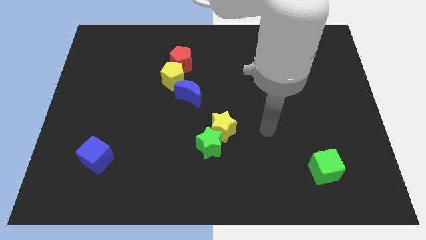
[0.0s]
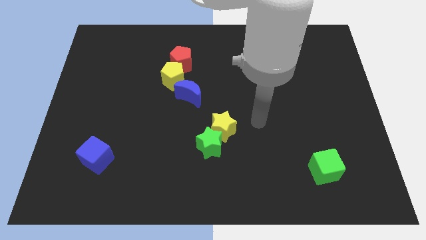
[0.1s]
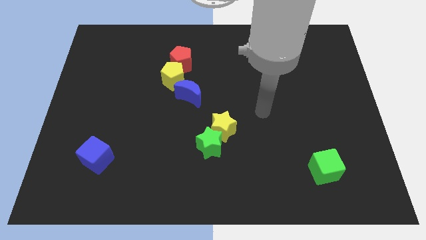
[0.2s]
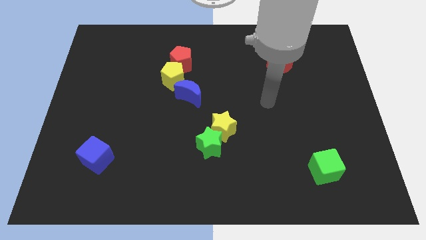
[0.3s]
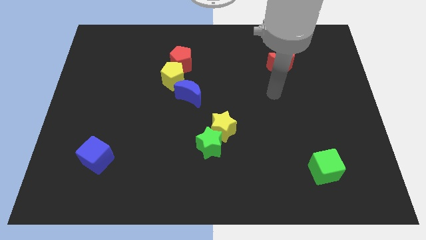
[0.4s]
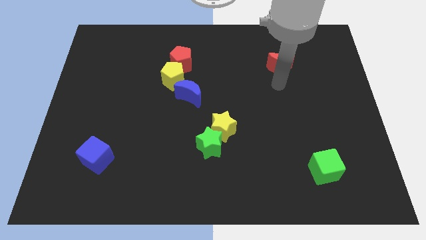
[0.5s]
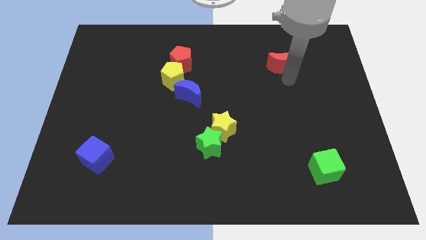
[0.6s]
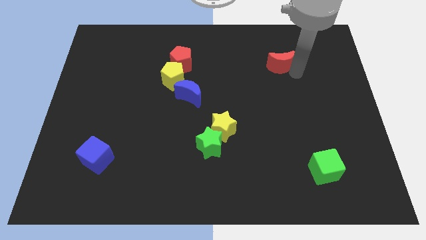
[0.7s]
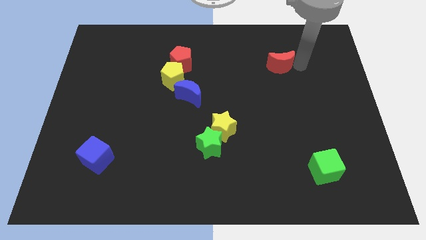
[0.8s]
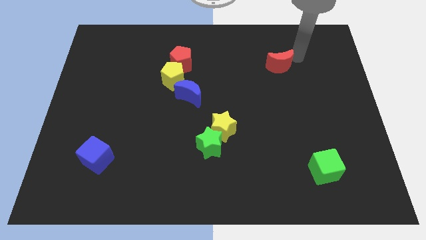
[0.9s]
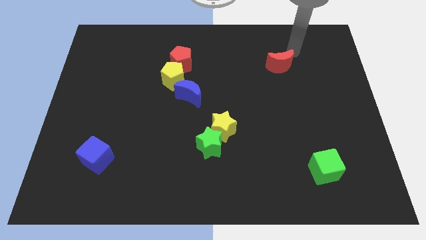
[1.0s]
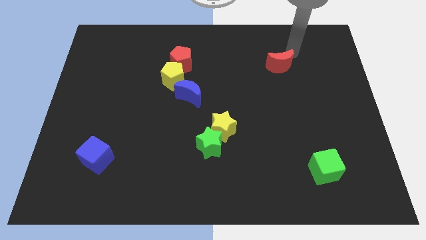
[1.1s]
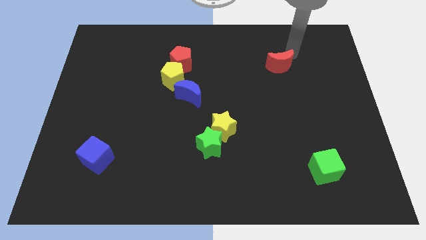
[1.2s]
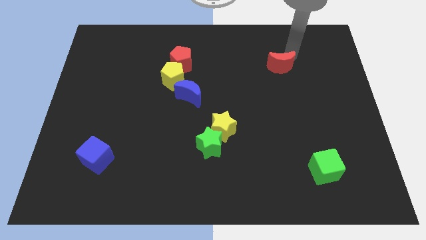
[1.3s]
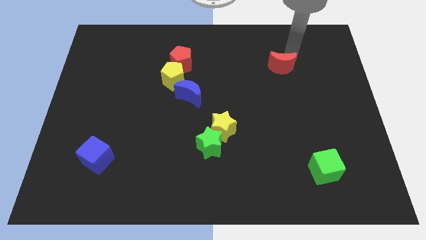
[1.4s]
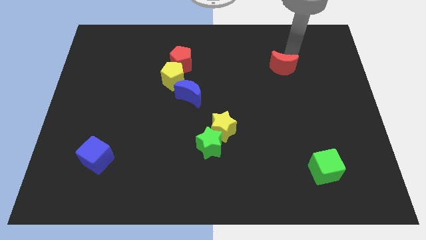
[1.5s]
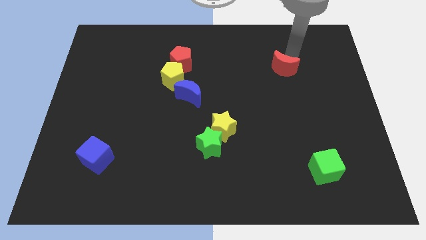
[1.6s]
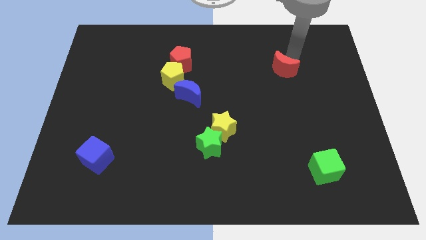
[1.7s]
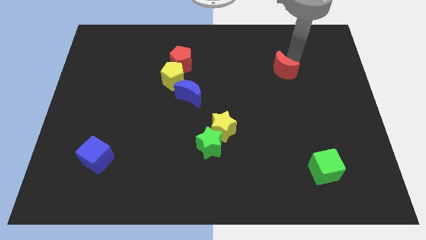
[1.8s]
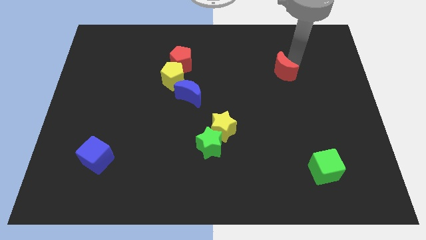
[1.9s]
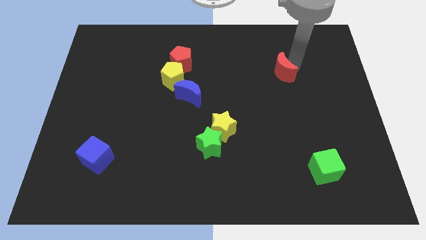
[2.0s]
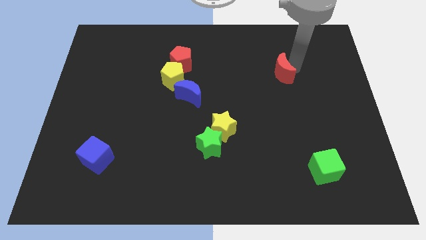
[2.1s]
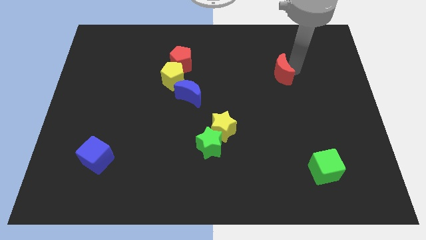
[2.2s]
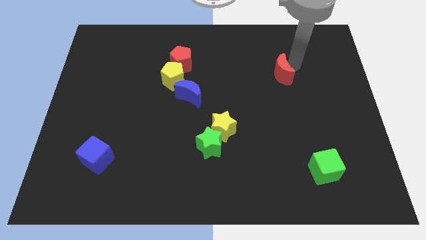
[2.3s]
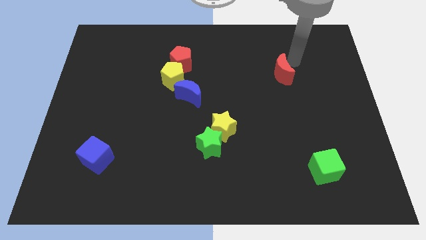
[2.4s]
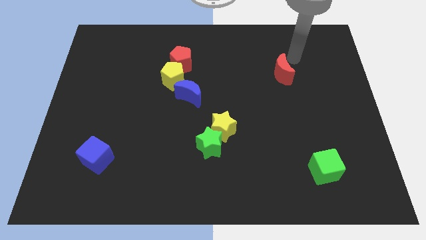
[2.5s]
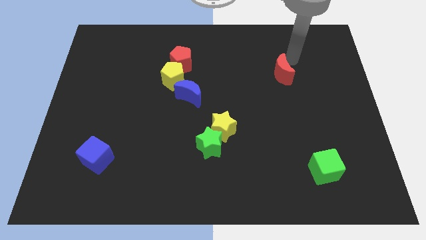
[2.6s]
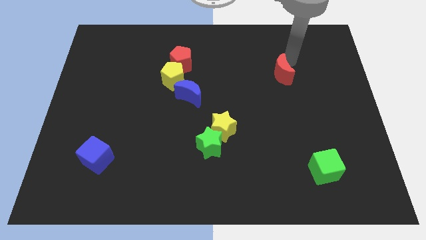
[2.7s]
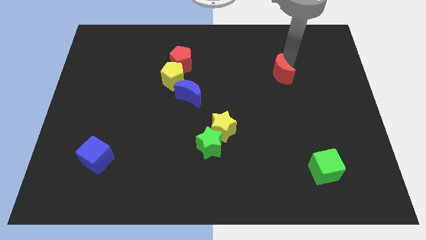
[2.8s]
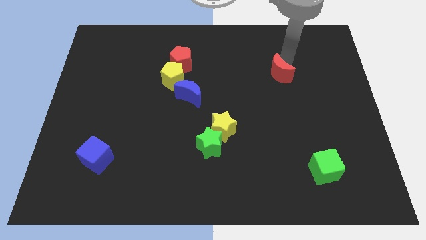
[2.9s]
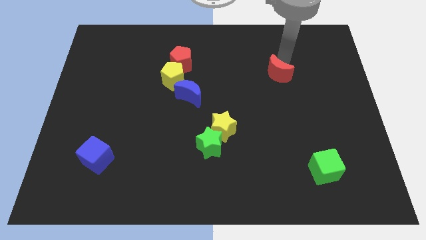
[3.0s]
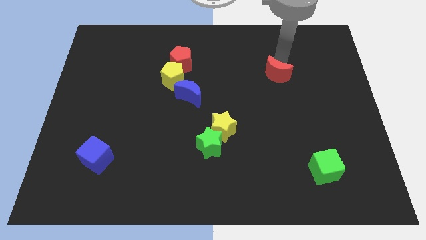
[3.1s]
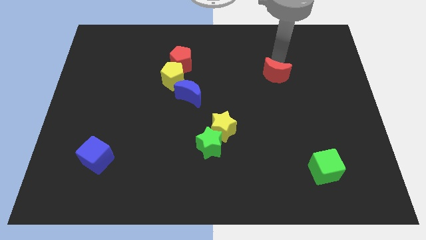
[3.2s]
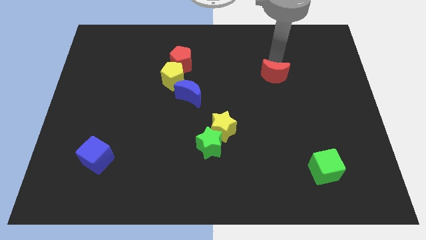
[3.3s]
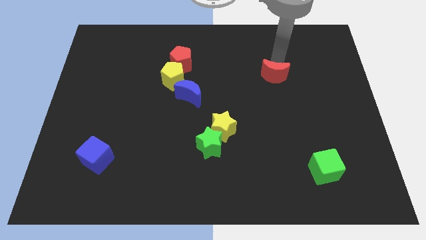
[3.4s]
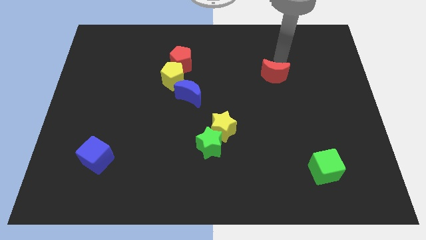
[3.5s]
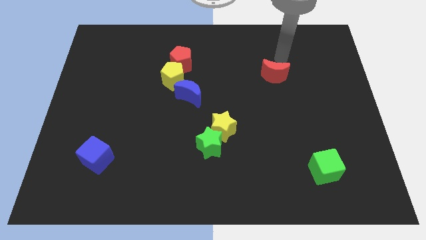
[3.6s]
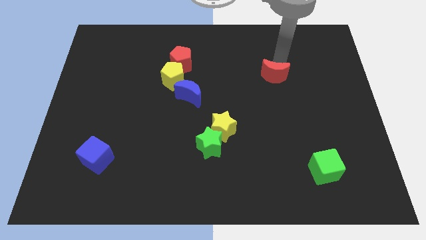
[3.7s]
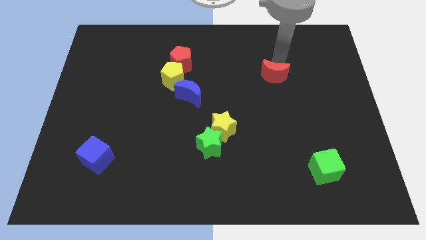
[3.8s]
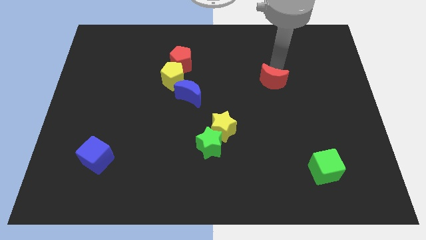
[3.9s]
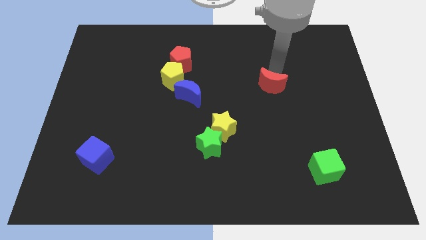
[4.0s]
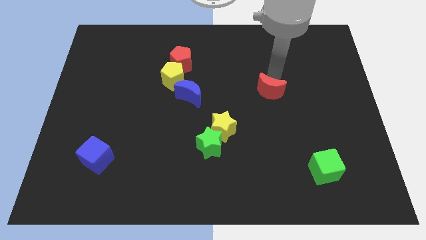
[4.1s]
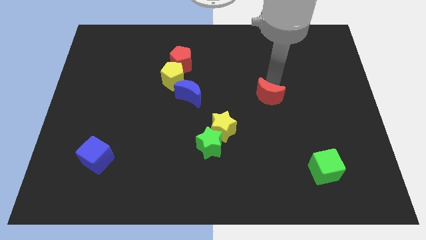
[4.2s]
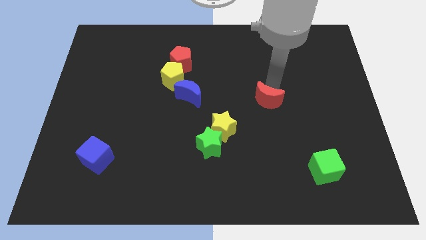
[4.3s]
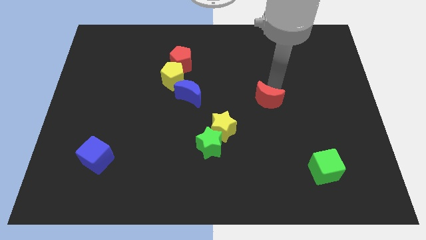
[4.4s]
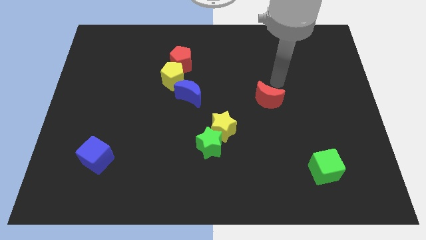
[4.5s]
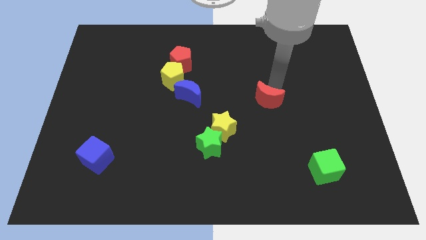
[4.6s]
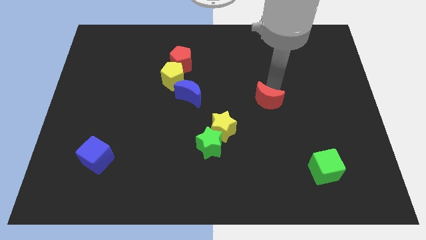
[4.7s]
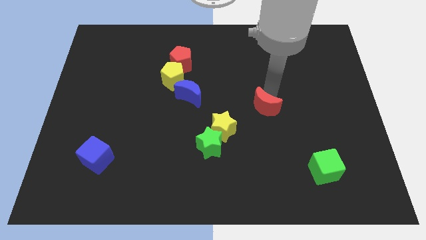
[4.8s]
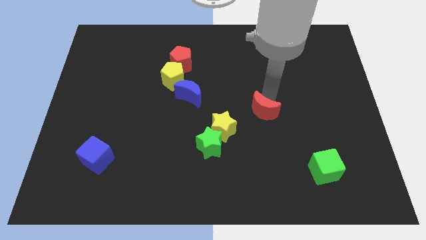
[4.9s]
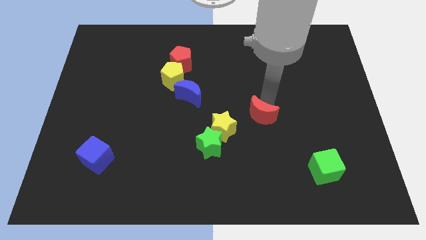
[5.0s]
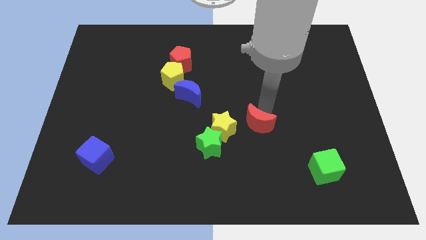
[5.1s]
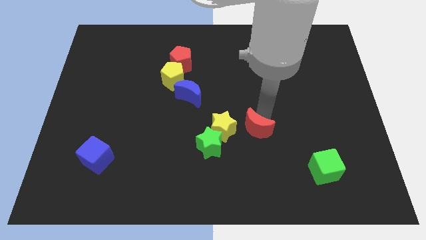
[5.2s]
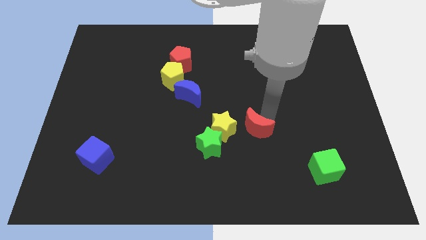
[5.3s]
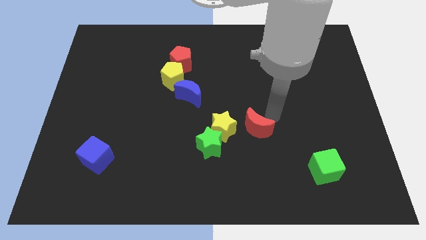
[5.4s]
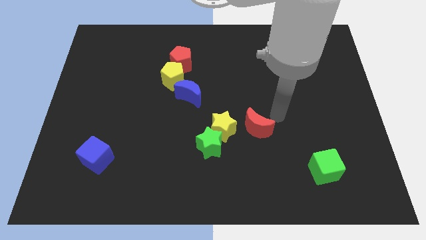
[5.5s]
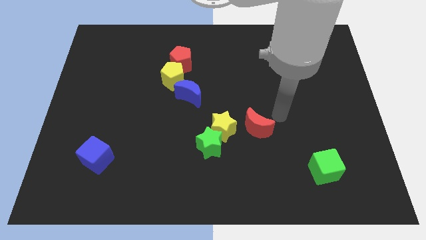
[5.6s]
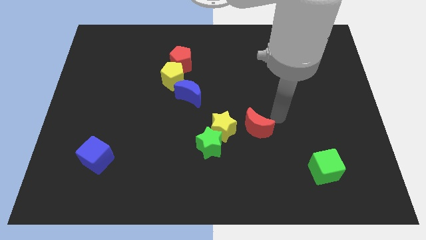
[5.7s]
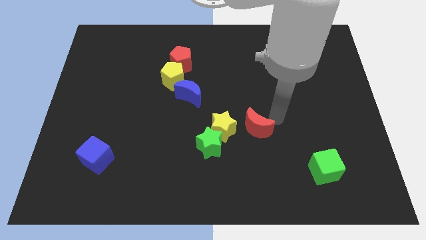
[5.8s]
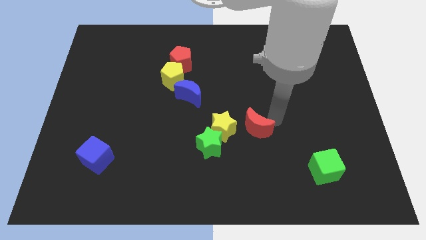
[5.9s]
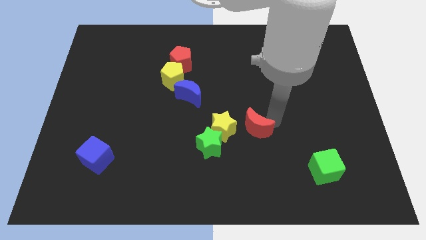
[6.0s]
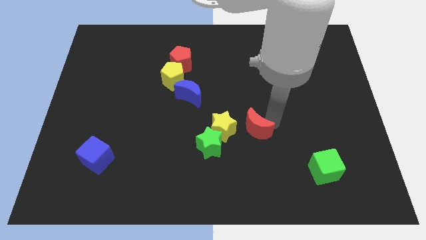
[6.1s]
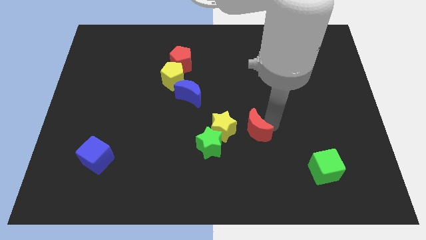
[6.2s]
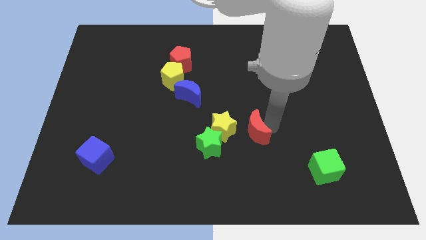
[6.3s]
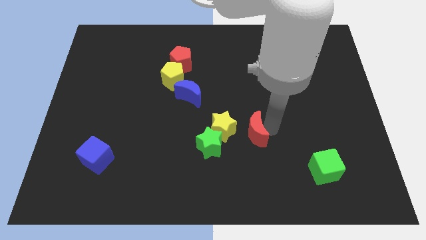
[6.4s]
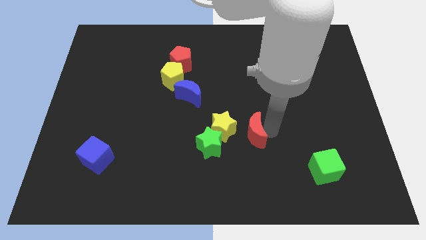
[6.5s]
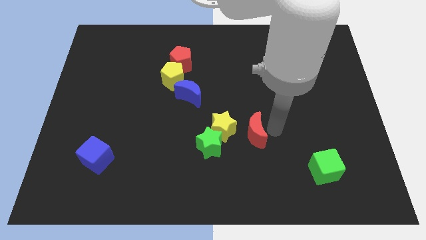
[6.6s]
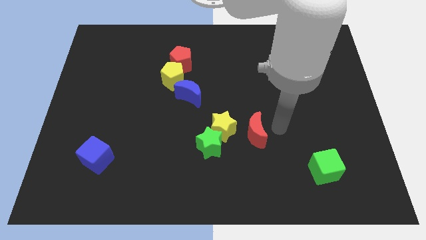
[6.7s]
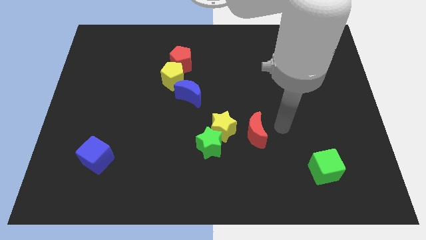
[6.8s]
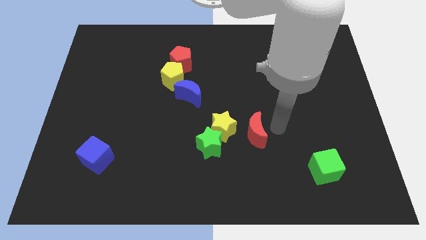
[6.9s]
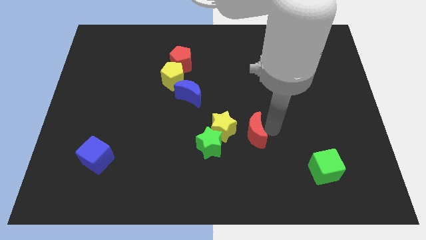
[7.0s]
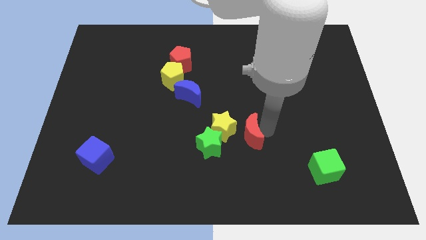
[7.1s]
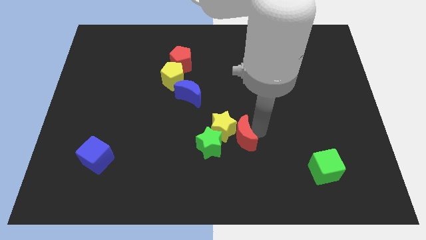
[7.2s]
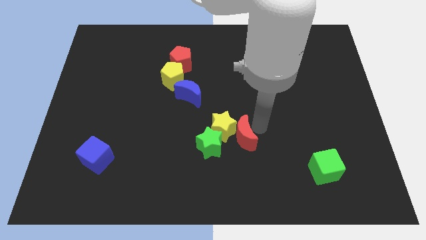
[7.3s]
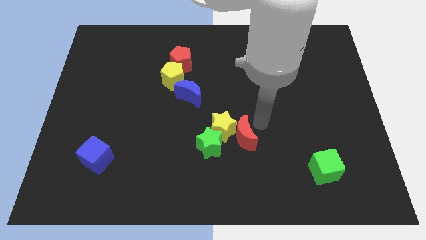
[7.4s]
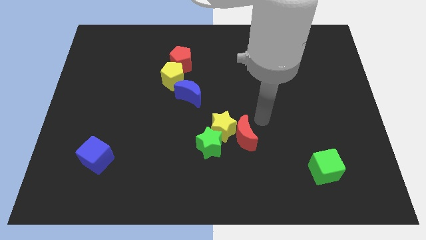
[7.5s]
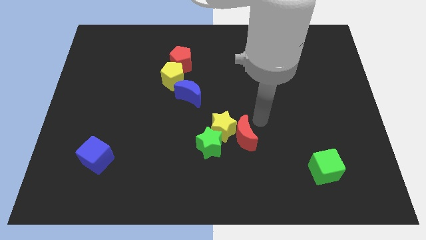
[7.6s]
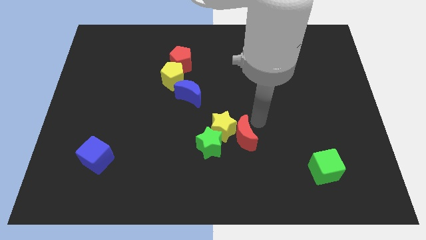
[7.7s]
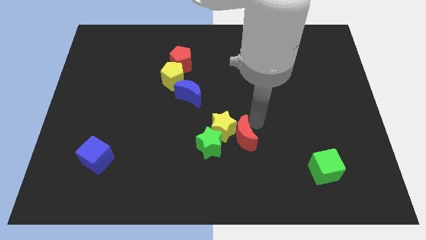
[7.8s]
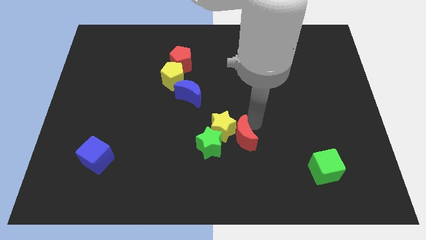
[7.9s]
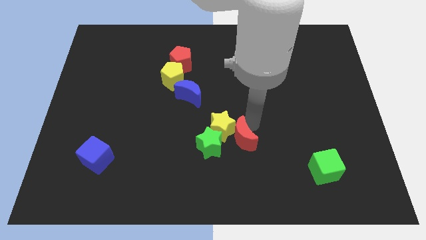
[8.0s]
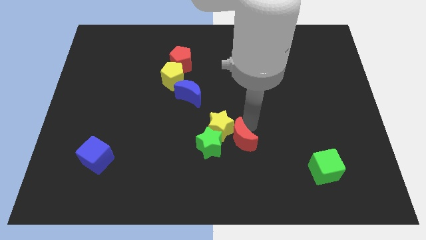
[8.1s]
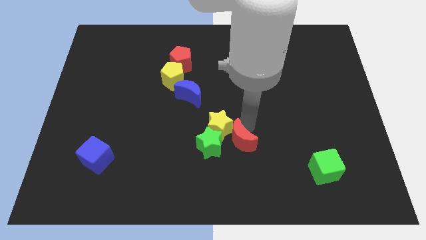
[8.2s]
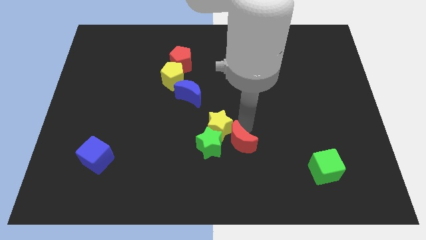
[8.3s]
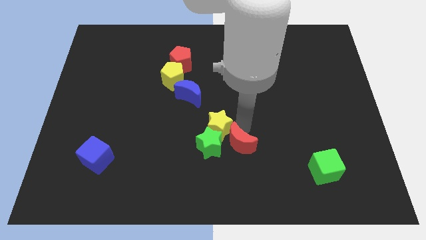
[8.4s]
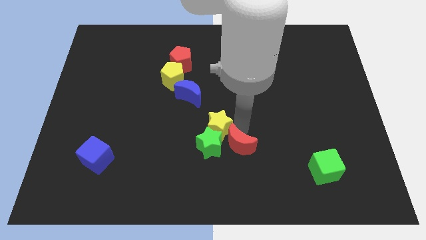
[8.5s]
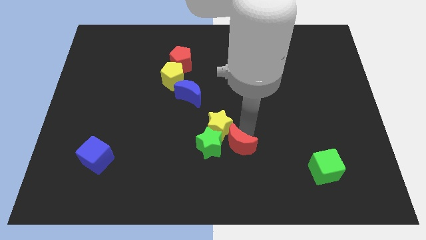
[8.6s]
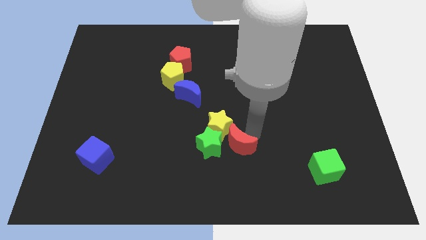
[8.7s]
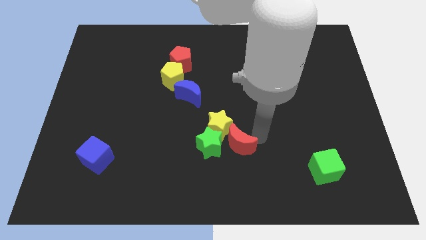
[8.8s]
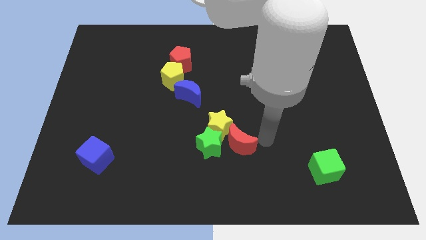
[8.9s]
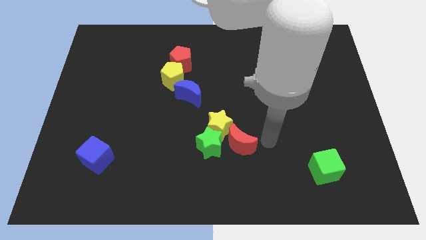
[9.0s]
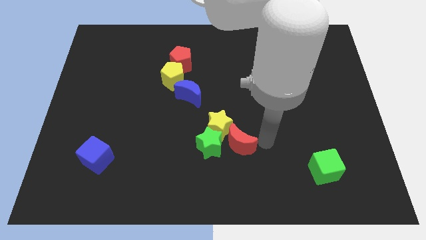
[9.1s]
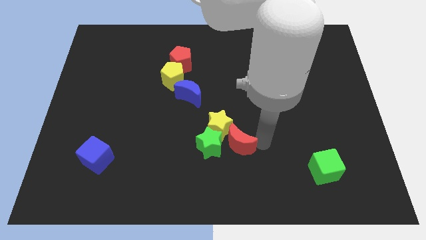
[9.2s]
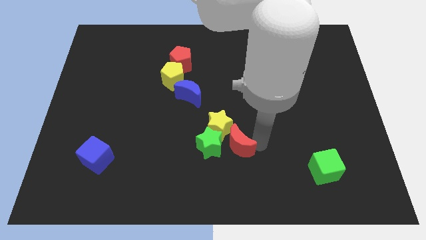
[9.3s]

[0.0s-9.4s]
put the red moon towards the green star
